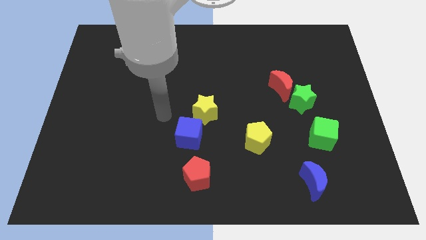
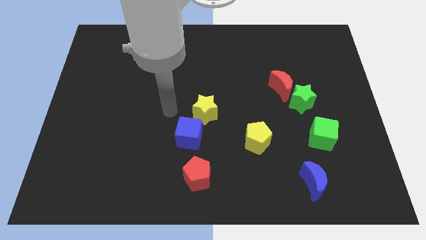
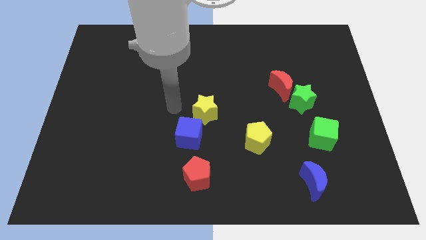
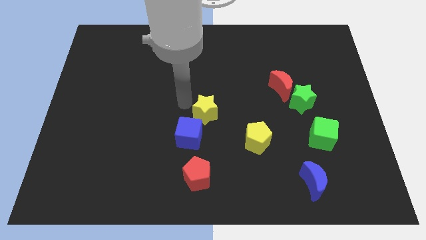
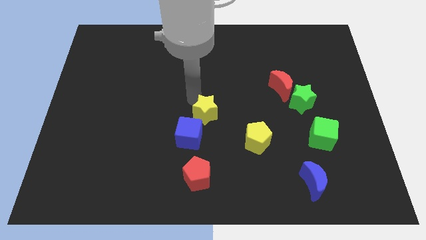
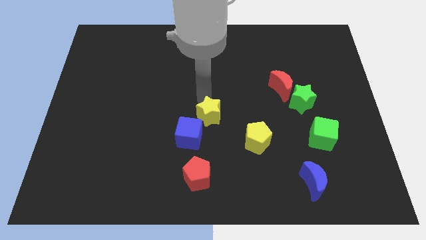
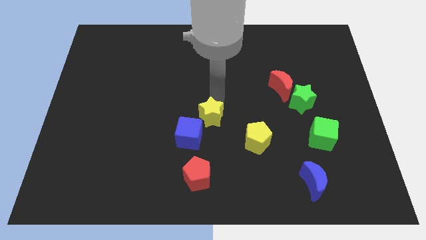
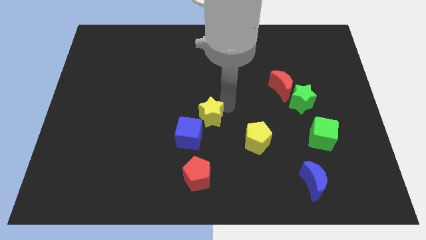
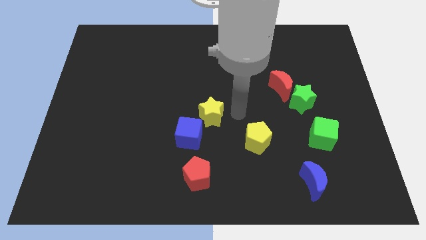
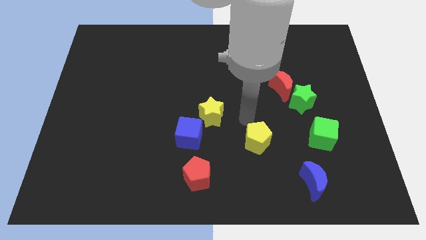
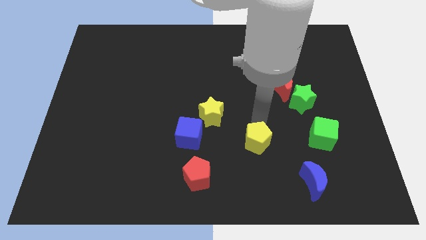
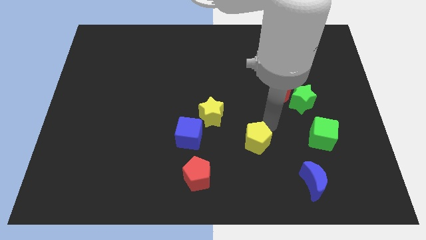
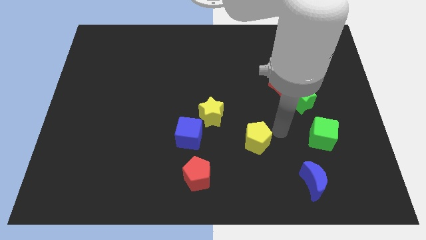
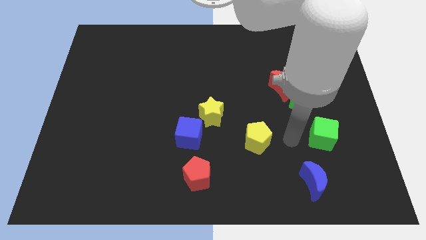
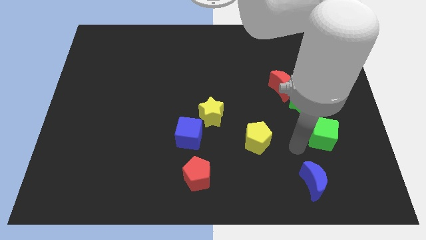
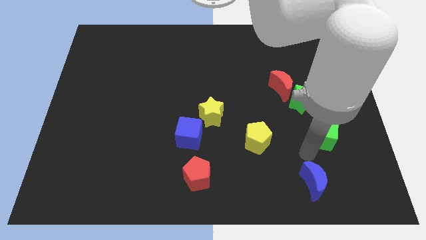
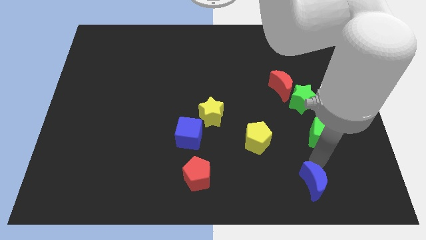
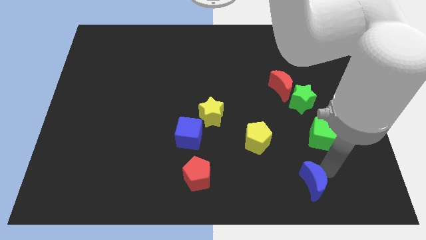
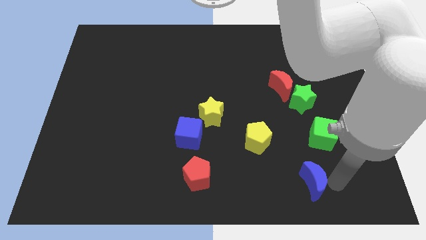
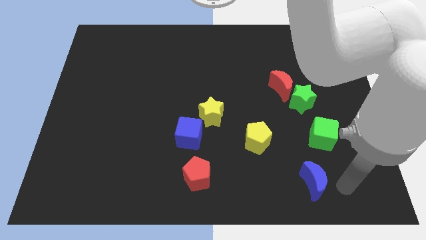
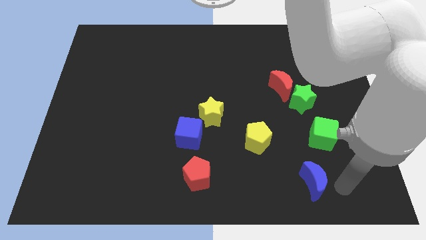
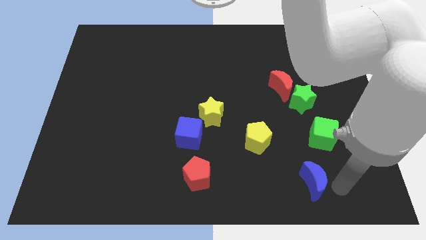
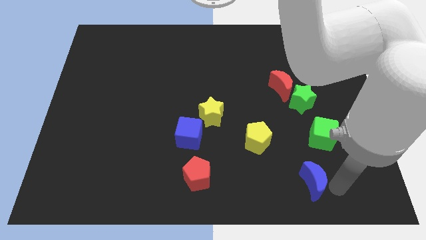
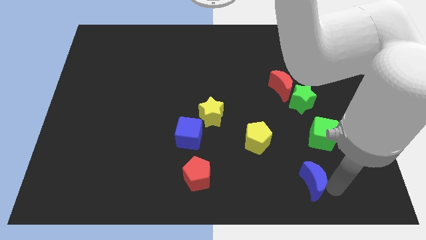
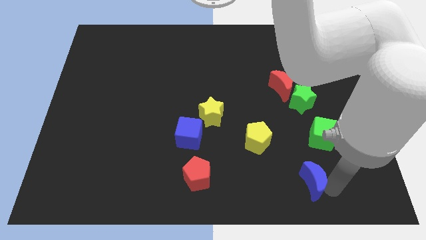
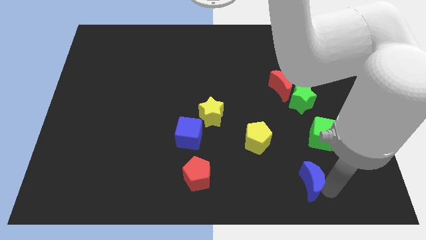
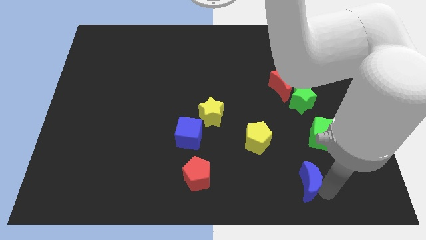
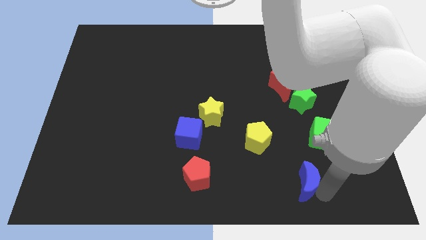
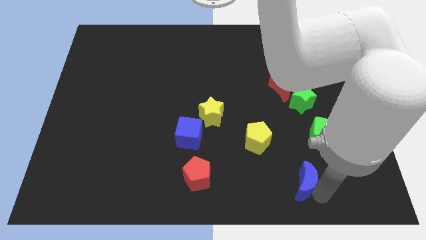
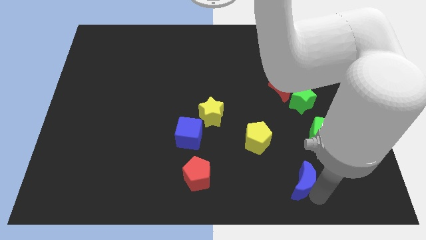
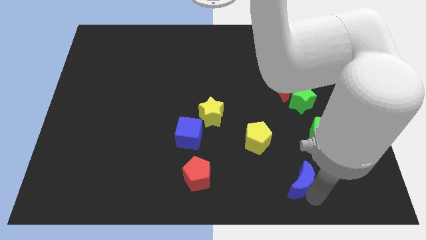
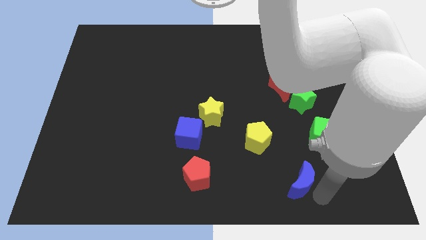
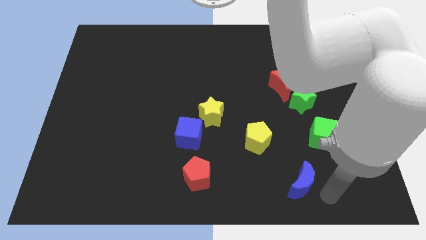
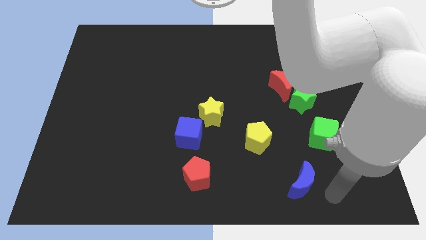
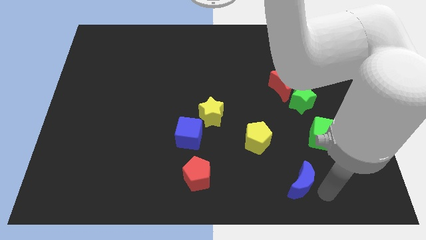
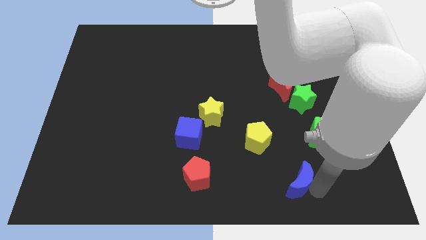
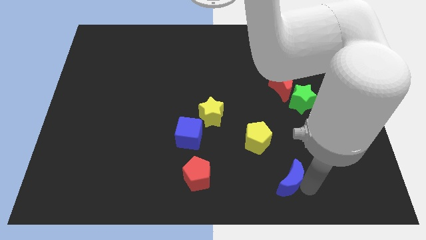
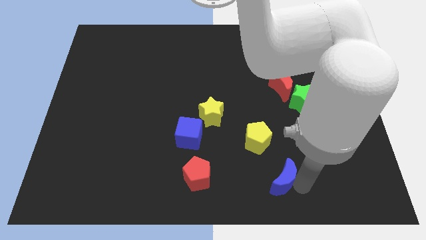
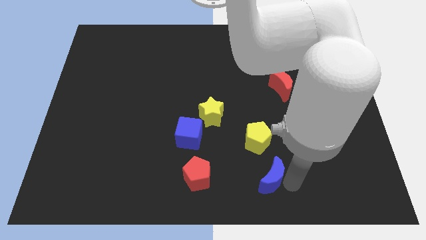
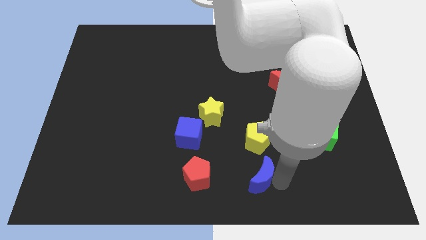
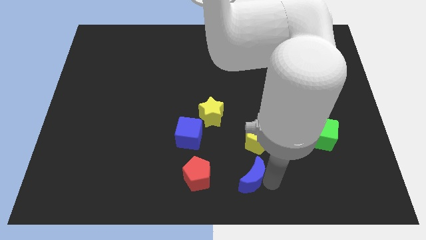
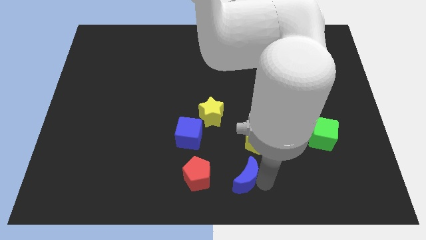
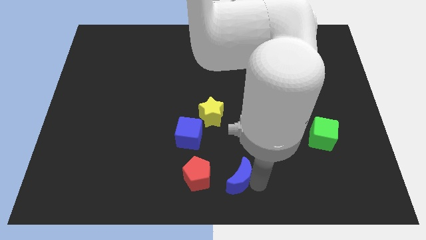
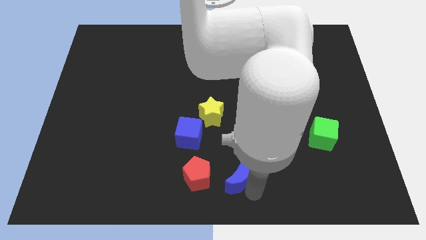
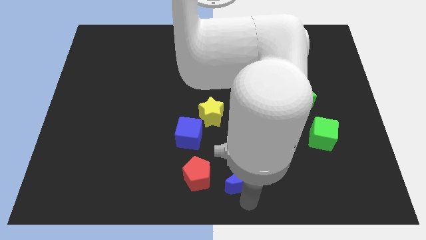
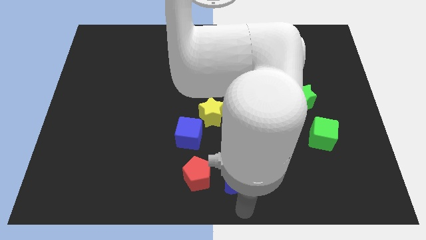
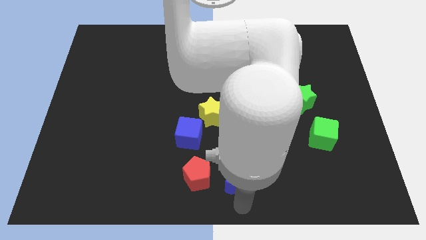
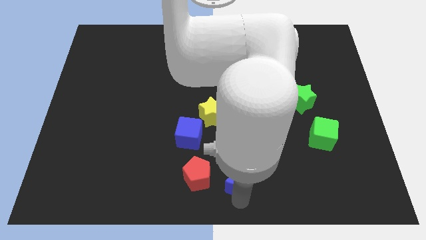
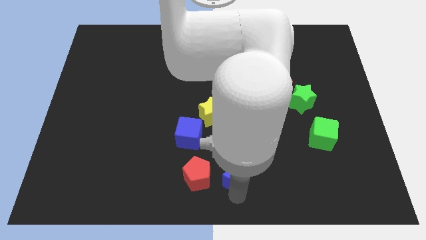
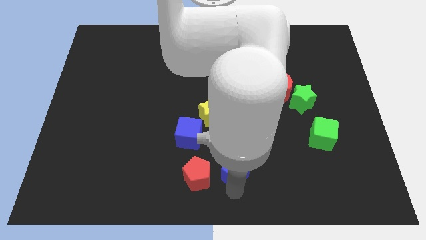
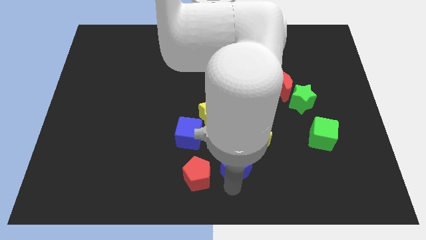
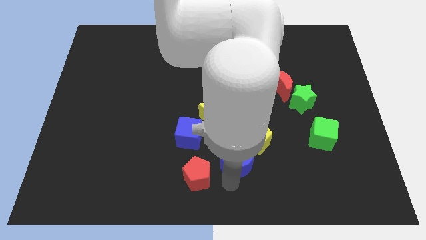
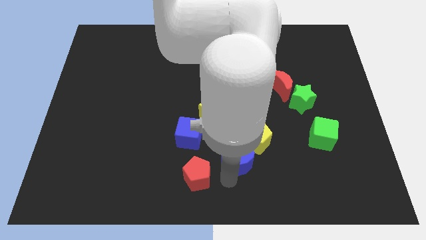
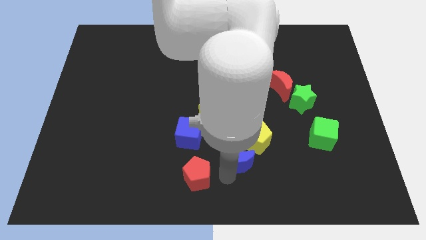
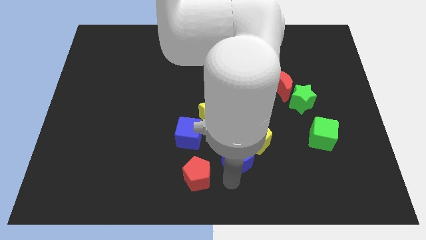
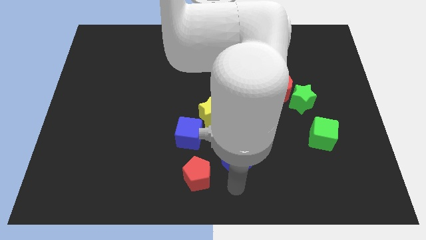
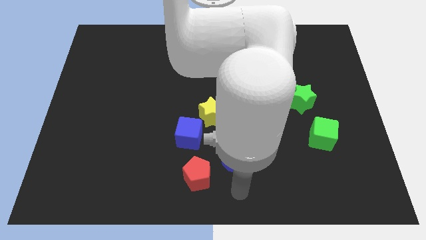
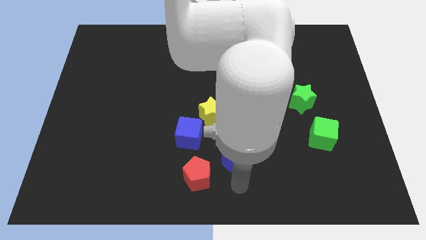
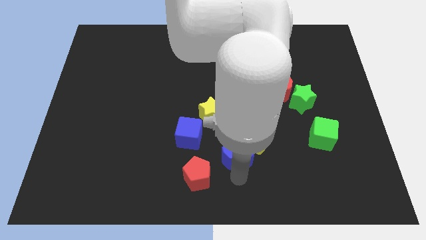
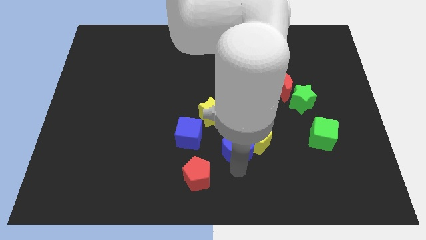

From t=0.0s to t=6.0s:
slide the blue moon to the bottom right of the yellow star

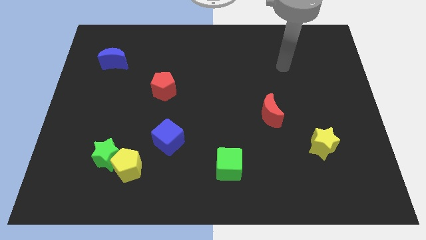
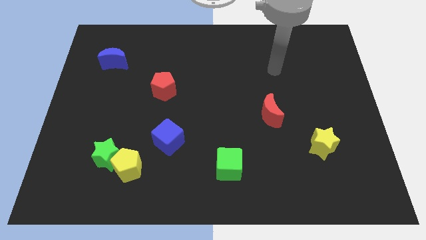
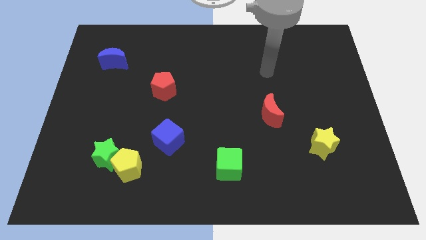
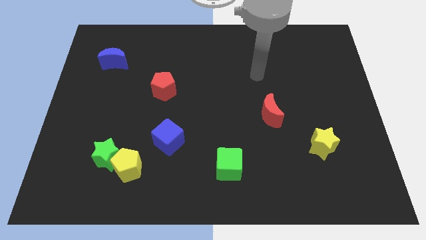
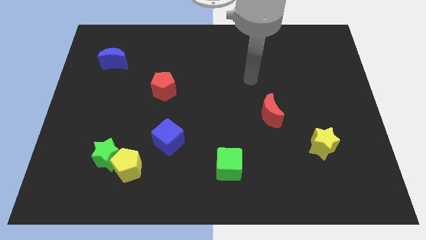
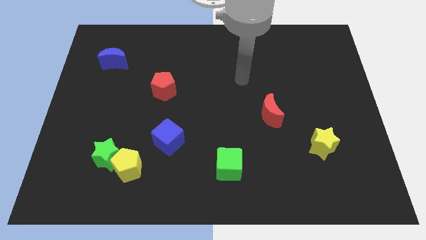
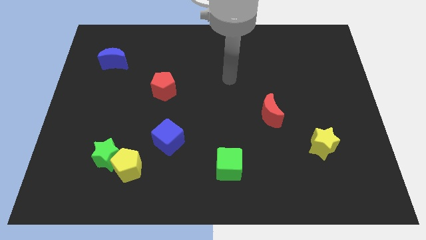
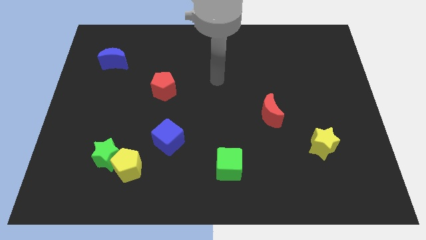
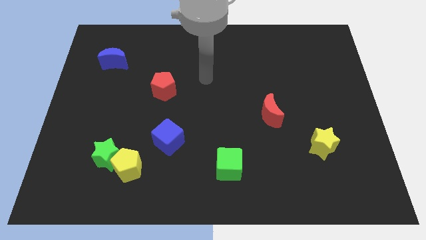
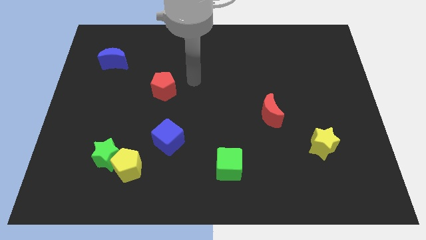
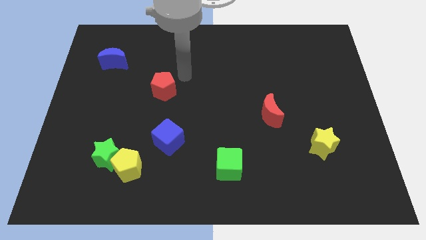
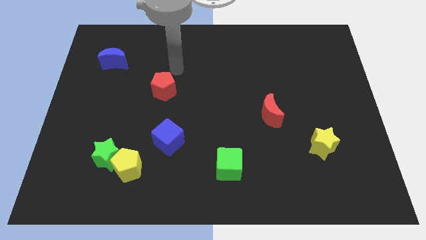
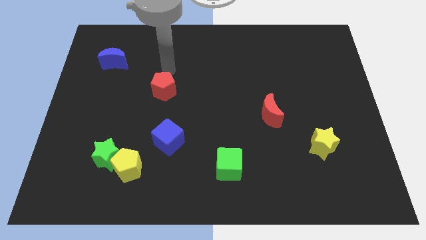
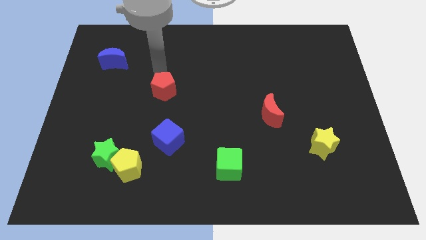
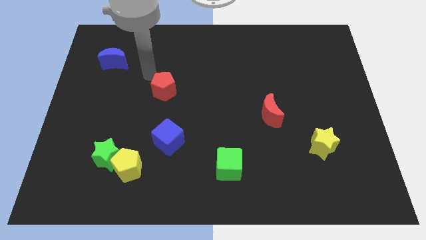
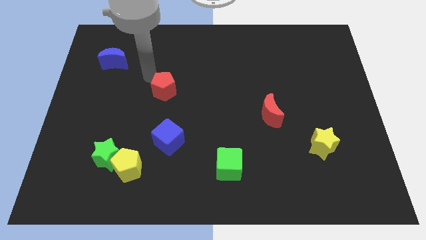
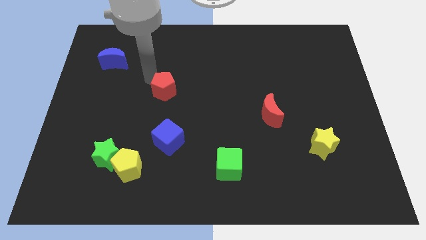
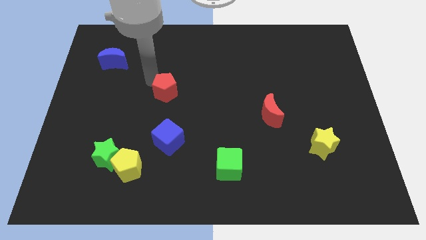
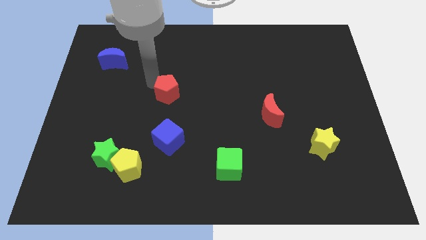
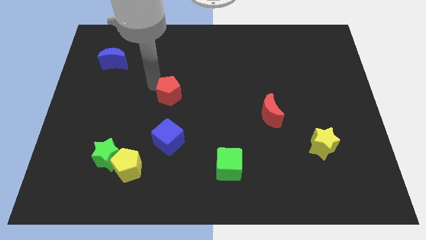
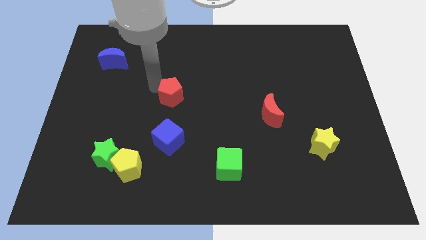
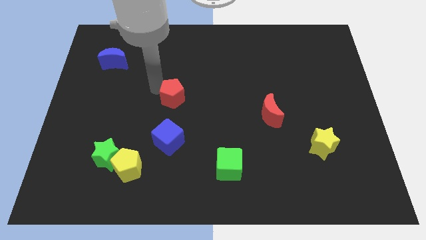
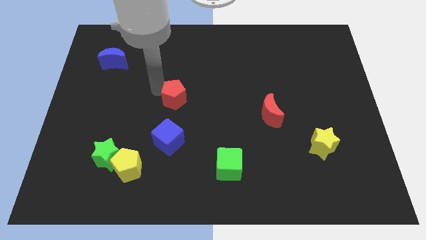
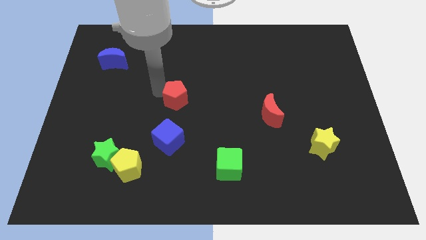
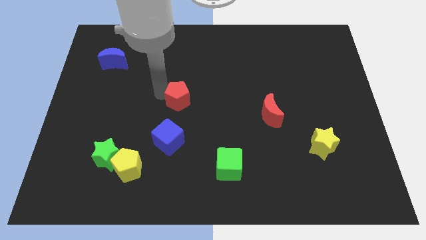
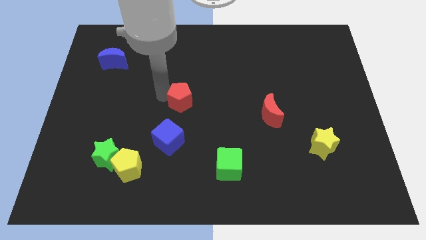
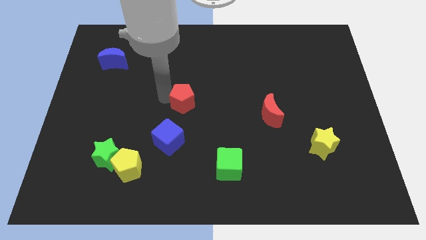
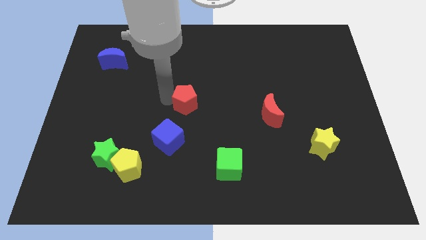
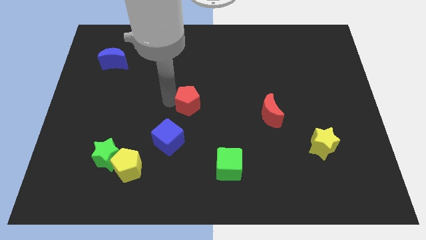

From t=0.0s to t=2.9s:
move the red pentagon to the top right side of the blue cube
